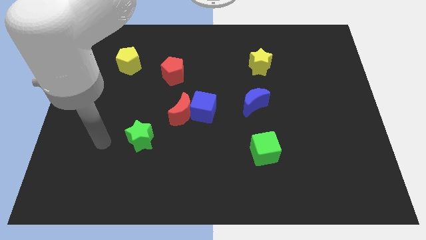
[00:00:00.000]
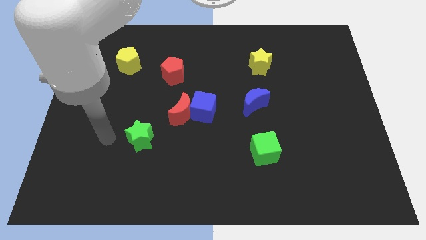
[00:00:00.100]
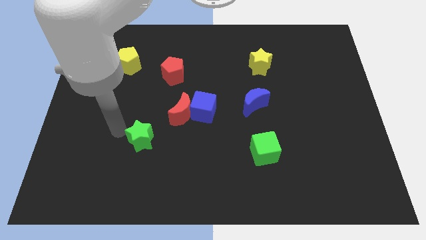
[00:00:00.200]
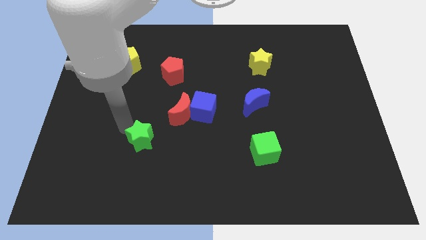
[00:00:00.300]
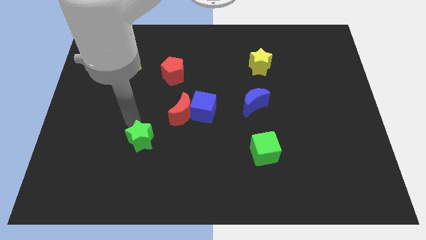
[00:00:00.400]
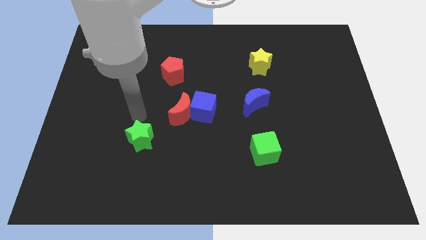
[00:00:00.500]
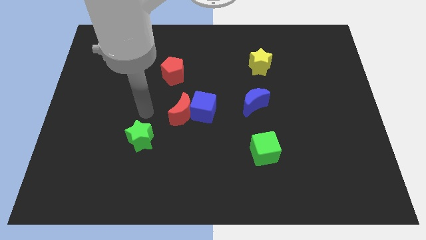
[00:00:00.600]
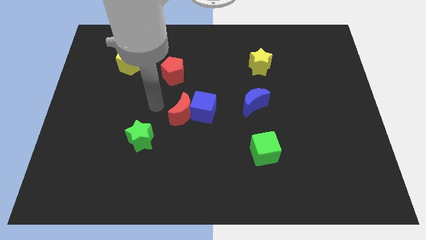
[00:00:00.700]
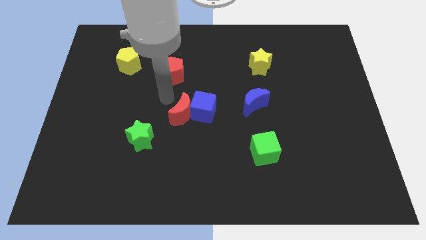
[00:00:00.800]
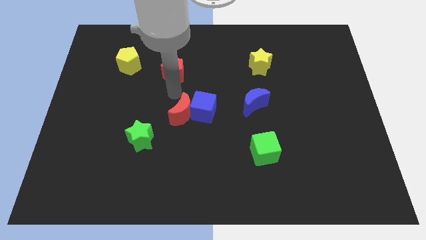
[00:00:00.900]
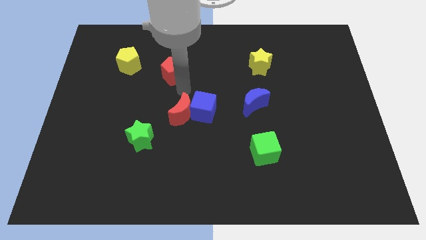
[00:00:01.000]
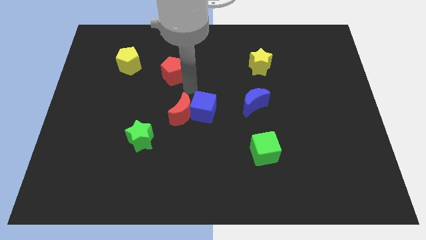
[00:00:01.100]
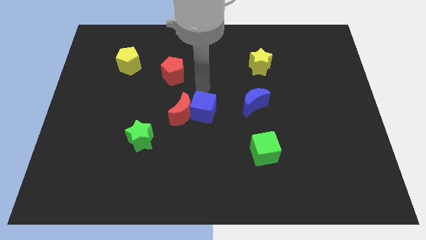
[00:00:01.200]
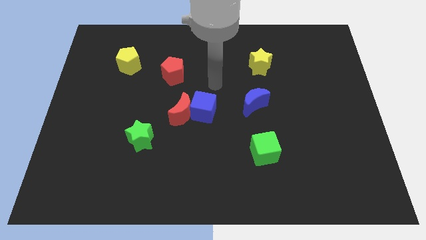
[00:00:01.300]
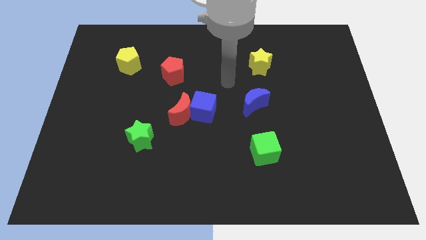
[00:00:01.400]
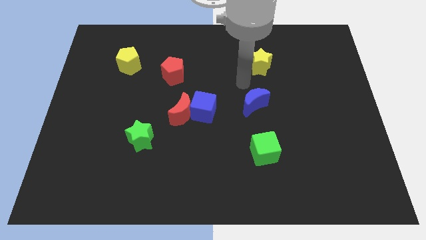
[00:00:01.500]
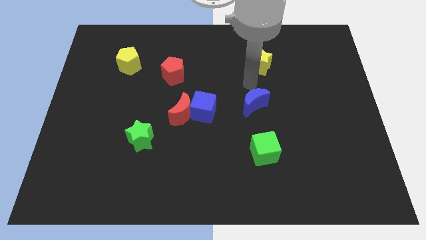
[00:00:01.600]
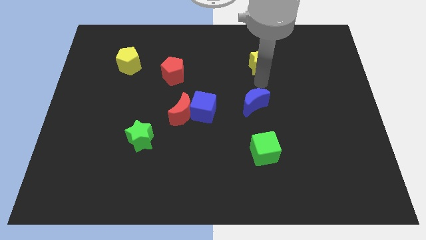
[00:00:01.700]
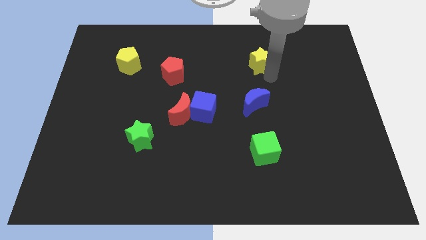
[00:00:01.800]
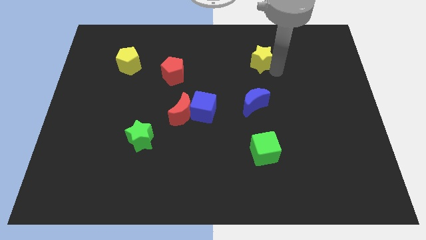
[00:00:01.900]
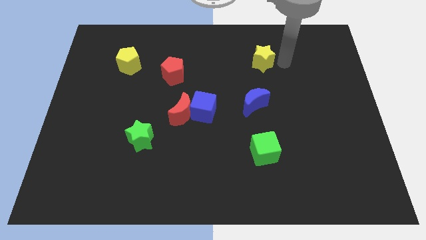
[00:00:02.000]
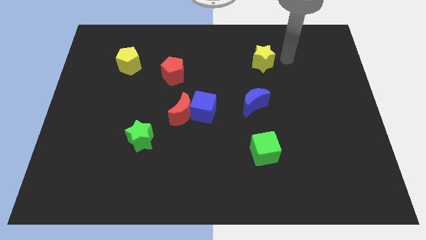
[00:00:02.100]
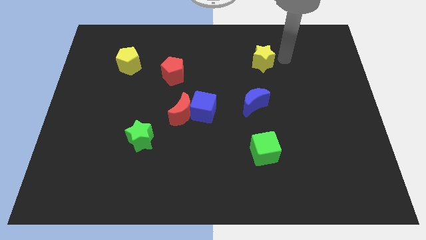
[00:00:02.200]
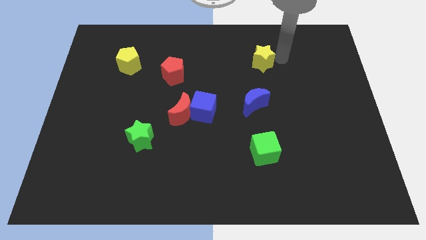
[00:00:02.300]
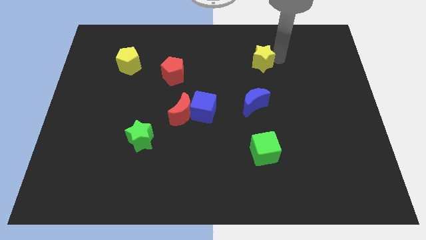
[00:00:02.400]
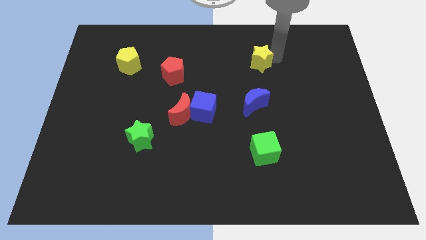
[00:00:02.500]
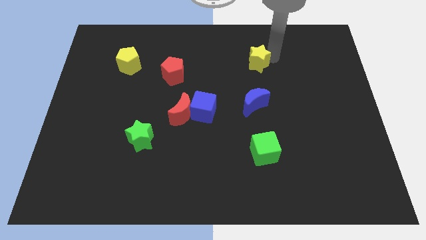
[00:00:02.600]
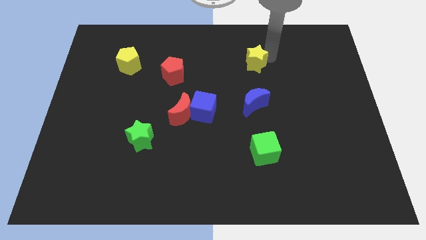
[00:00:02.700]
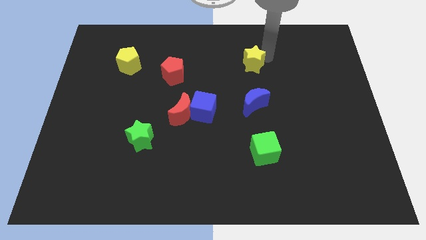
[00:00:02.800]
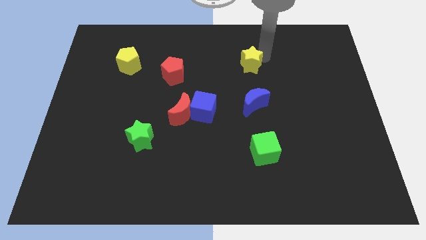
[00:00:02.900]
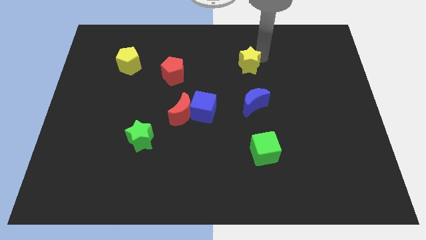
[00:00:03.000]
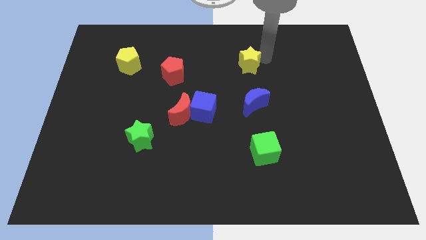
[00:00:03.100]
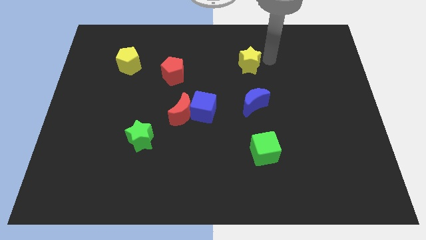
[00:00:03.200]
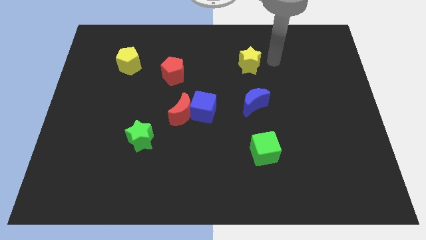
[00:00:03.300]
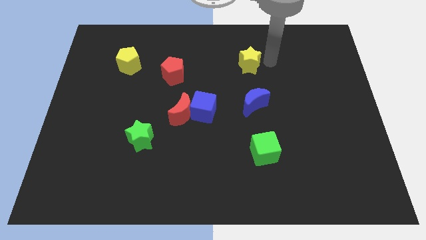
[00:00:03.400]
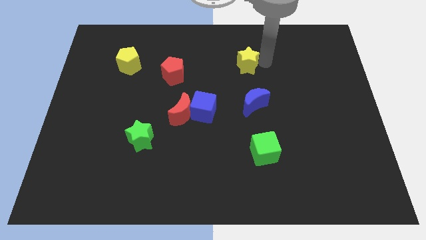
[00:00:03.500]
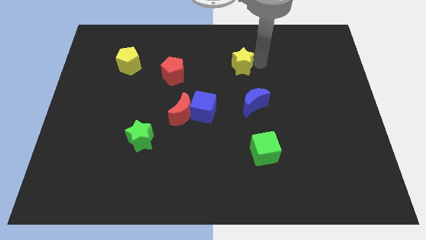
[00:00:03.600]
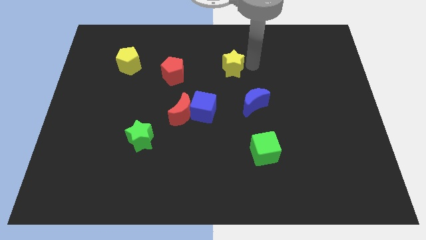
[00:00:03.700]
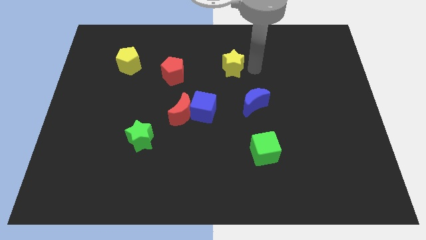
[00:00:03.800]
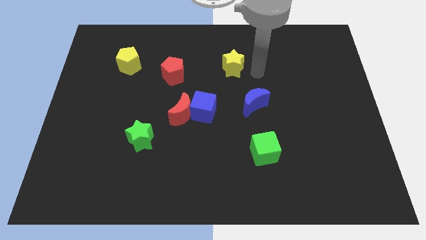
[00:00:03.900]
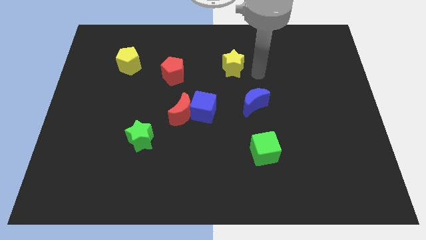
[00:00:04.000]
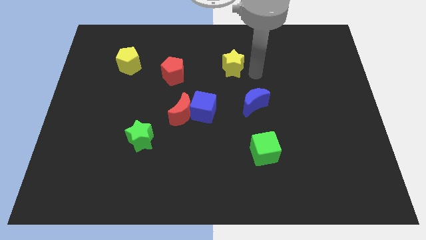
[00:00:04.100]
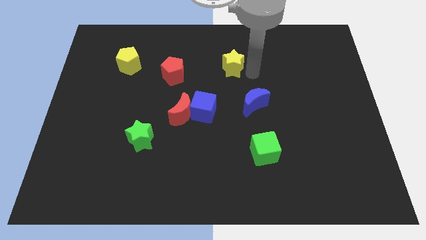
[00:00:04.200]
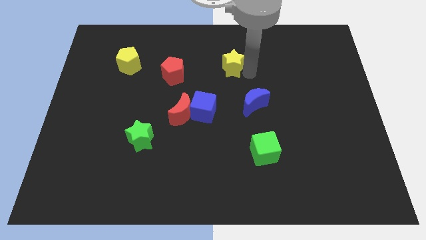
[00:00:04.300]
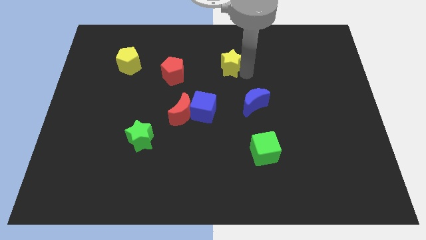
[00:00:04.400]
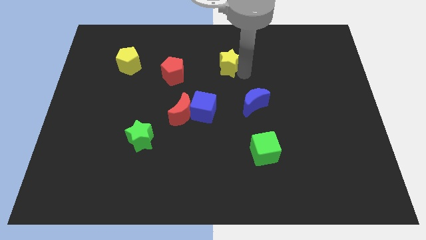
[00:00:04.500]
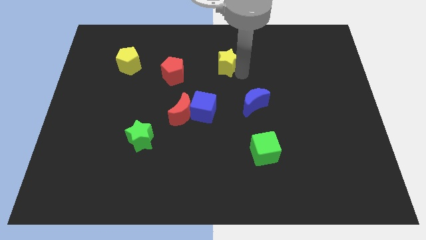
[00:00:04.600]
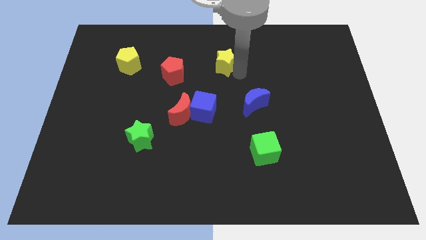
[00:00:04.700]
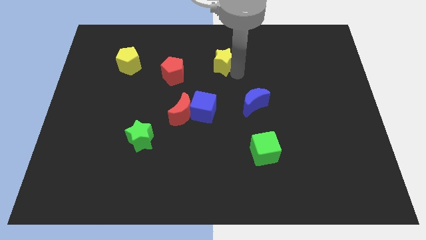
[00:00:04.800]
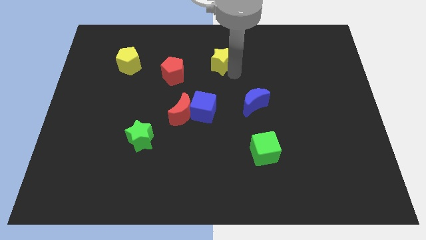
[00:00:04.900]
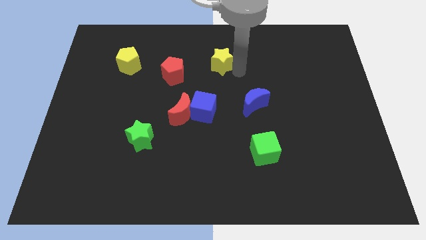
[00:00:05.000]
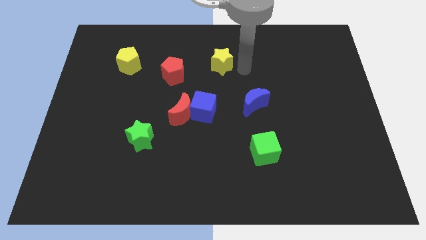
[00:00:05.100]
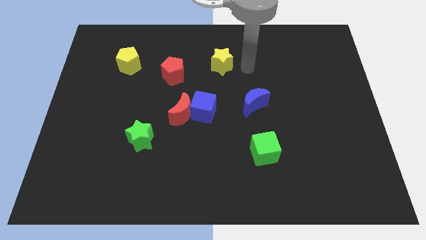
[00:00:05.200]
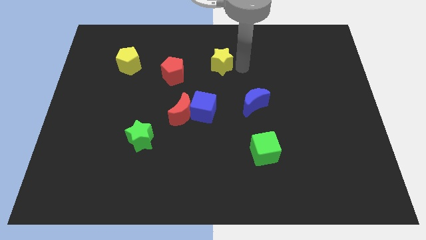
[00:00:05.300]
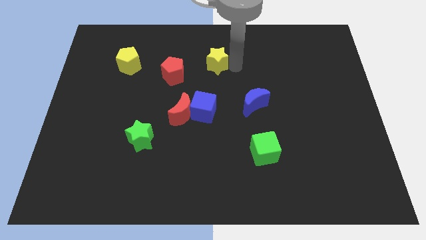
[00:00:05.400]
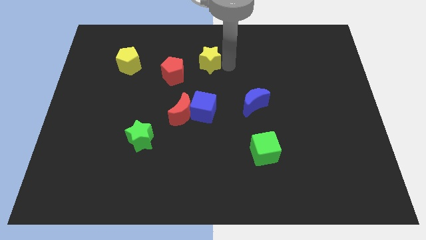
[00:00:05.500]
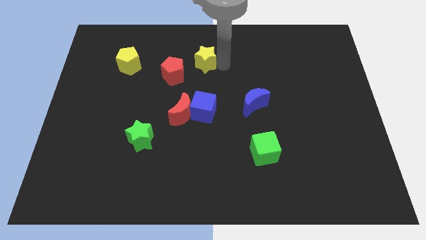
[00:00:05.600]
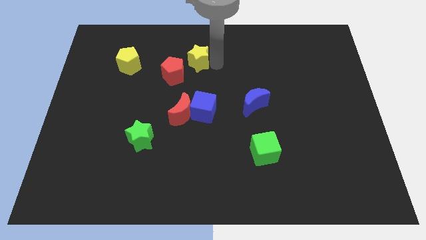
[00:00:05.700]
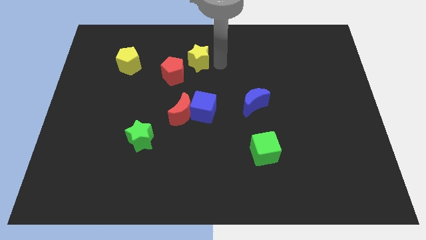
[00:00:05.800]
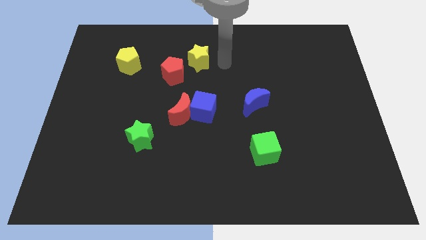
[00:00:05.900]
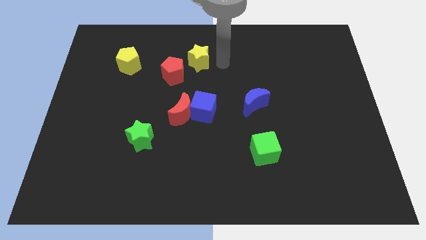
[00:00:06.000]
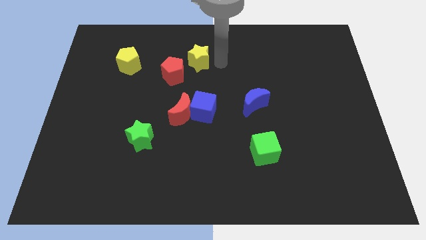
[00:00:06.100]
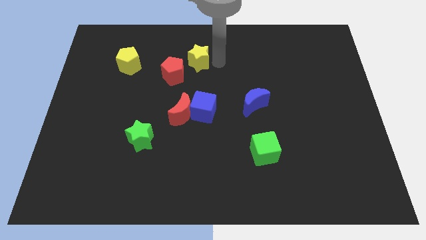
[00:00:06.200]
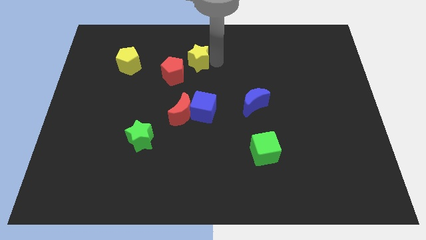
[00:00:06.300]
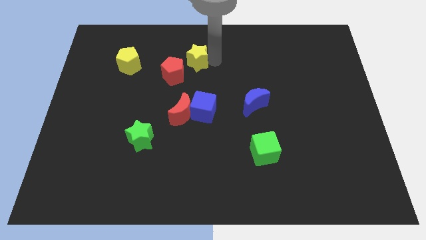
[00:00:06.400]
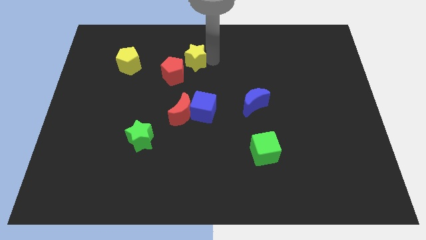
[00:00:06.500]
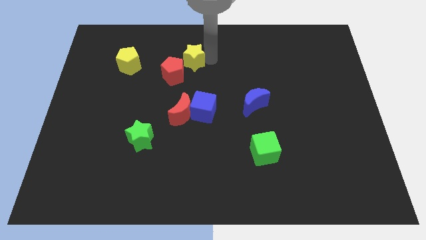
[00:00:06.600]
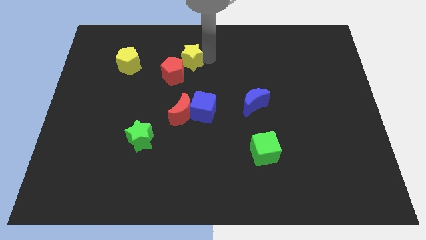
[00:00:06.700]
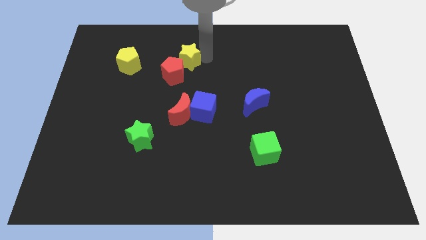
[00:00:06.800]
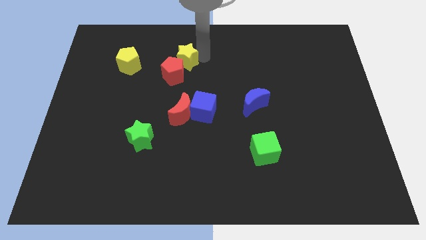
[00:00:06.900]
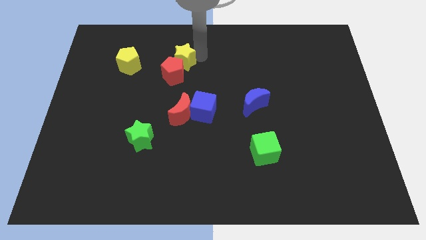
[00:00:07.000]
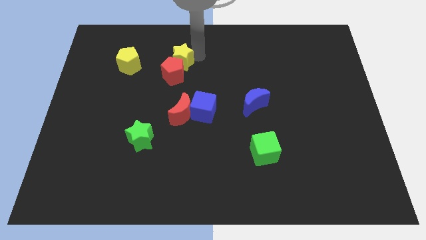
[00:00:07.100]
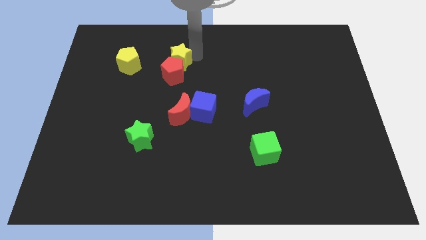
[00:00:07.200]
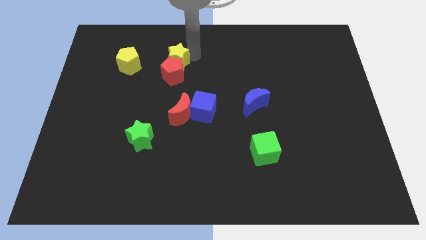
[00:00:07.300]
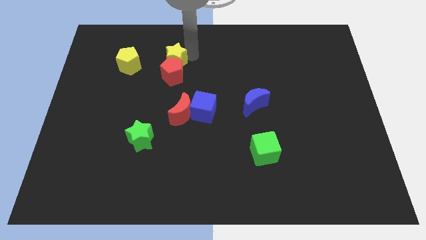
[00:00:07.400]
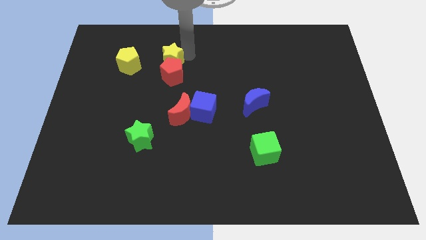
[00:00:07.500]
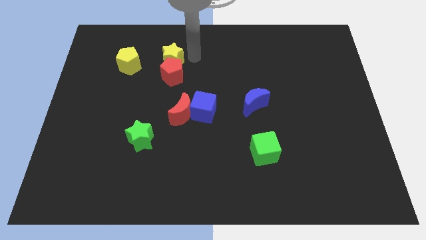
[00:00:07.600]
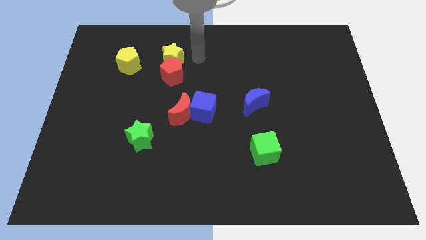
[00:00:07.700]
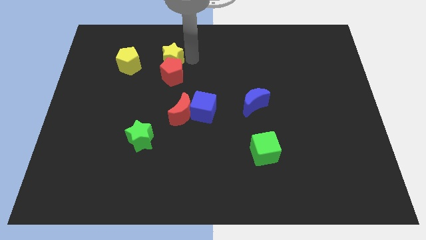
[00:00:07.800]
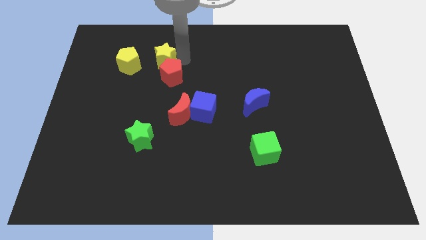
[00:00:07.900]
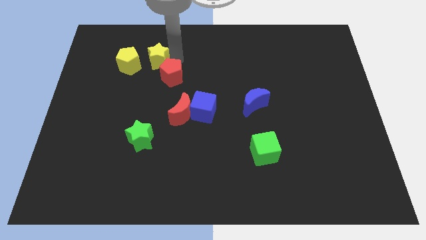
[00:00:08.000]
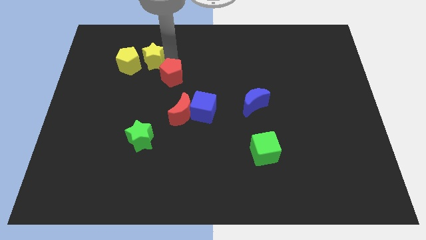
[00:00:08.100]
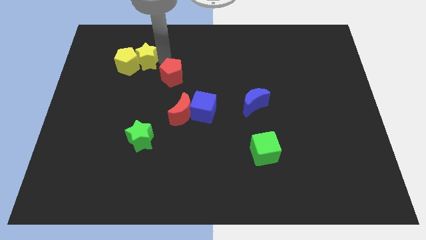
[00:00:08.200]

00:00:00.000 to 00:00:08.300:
slide the yellow star towards the yellow pentagon
